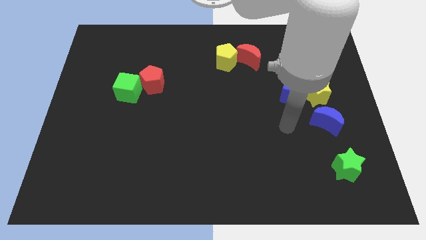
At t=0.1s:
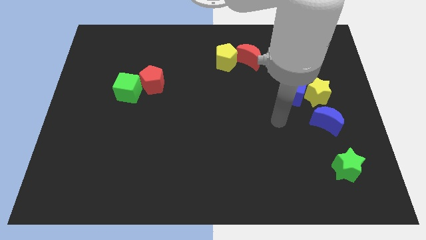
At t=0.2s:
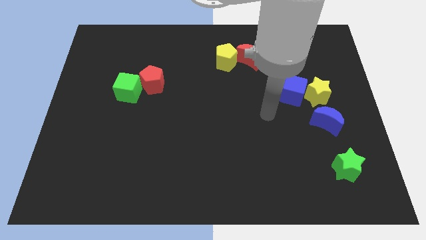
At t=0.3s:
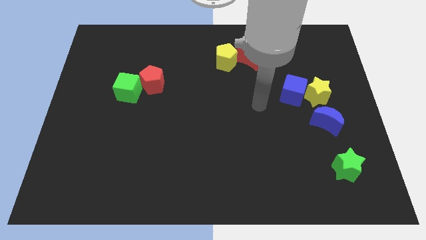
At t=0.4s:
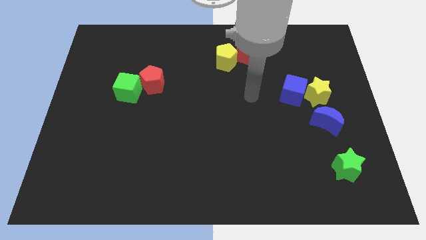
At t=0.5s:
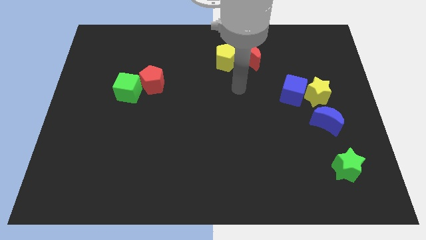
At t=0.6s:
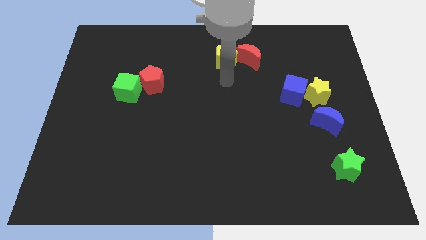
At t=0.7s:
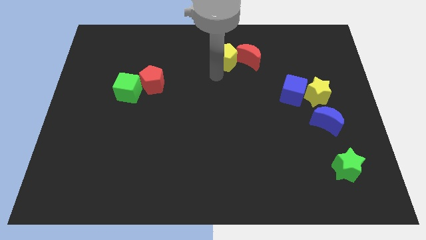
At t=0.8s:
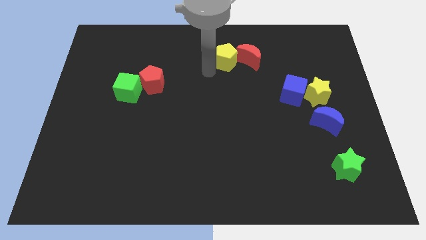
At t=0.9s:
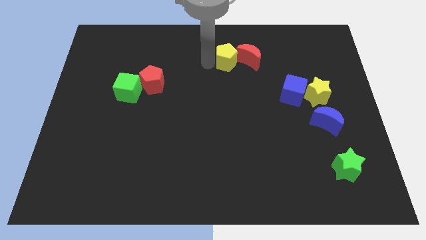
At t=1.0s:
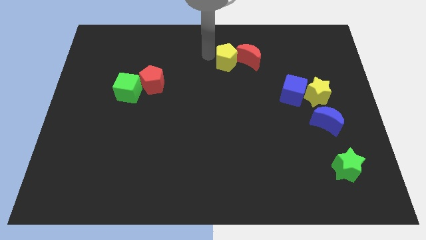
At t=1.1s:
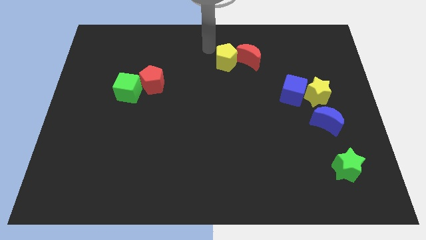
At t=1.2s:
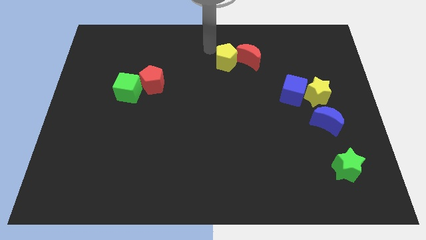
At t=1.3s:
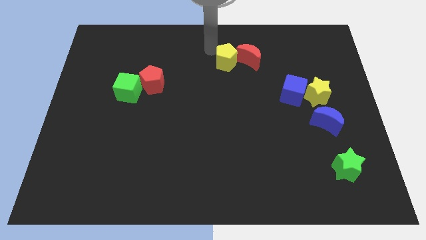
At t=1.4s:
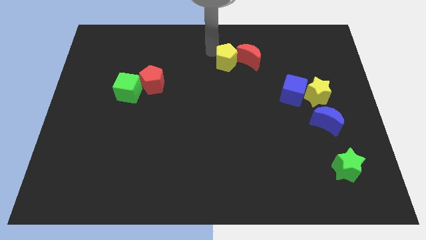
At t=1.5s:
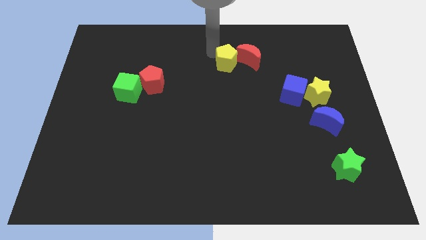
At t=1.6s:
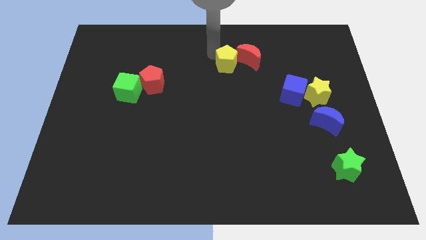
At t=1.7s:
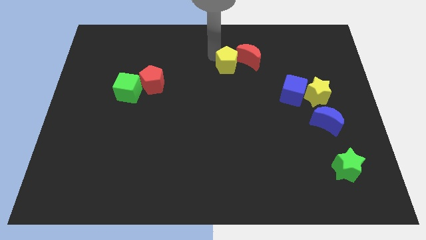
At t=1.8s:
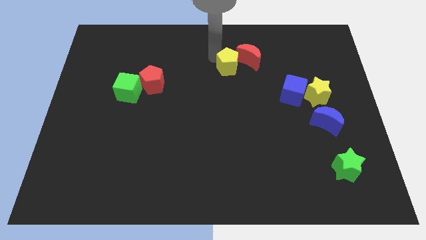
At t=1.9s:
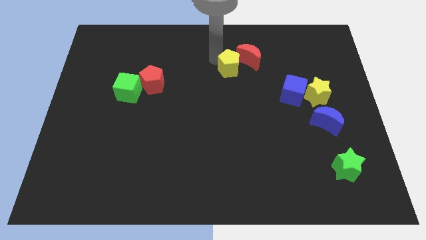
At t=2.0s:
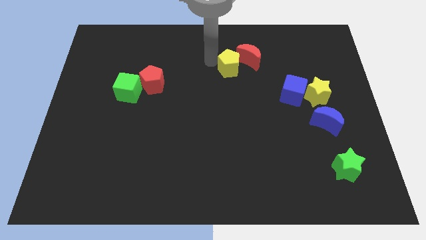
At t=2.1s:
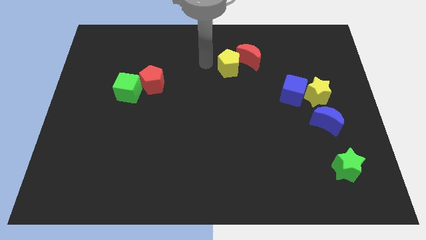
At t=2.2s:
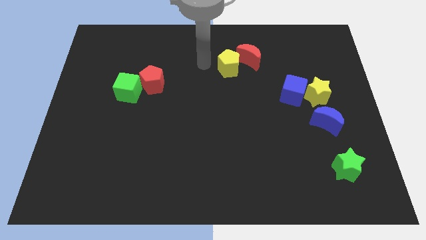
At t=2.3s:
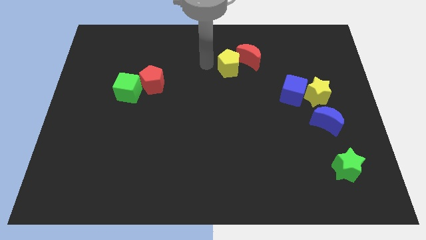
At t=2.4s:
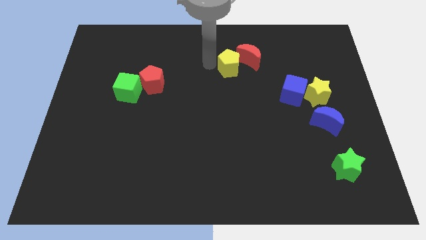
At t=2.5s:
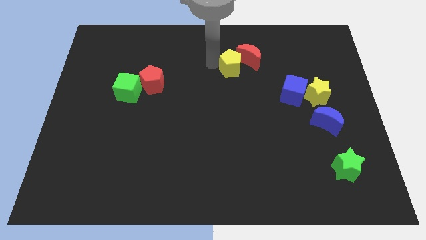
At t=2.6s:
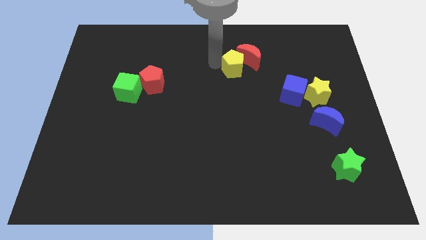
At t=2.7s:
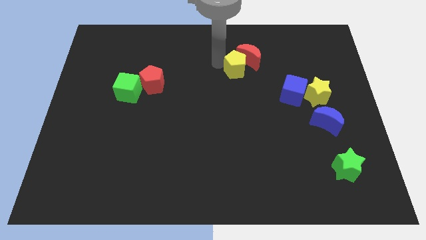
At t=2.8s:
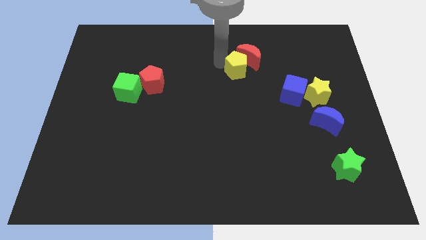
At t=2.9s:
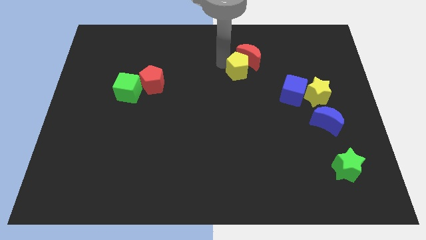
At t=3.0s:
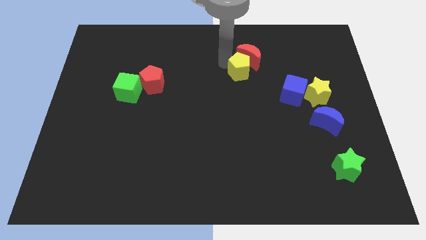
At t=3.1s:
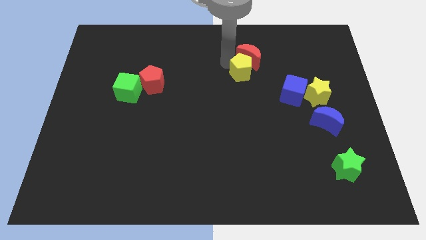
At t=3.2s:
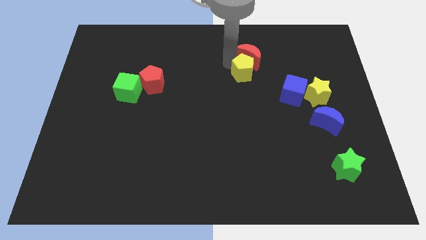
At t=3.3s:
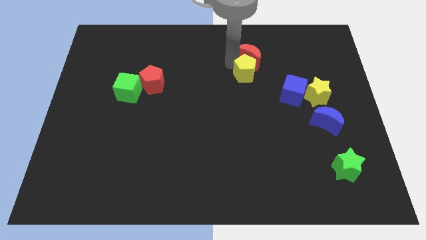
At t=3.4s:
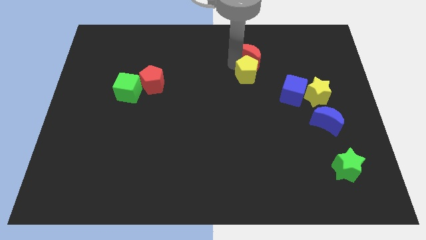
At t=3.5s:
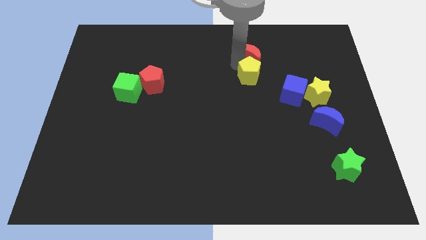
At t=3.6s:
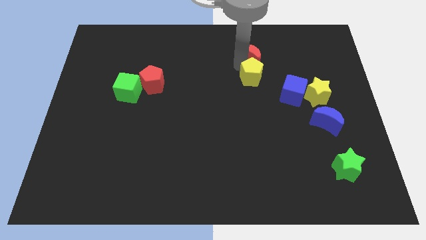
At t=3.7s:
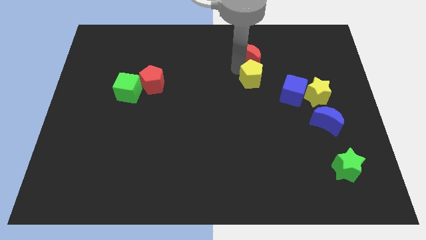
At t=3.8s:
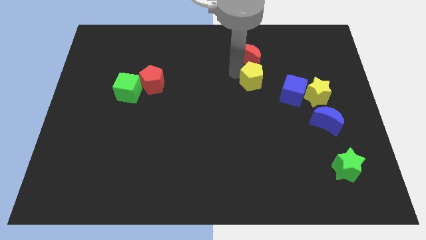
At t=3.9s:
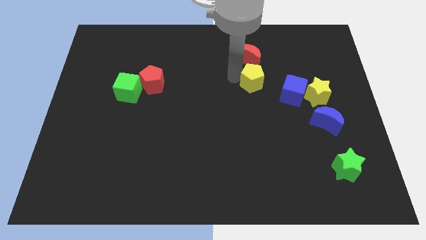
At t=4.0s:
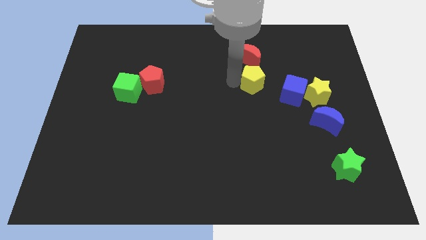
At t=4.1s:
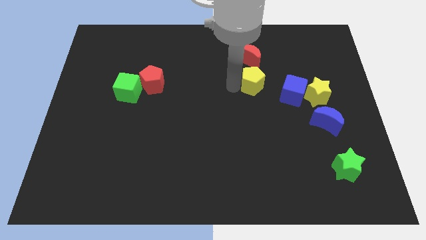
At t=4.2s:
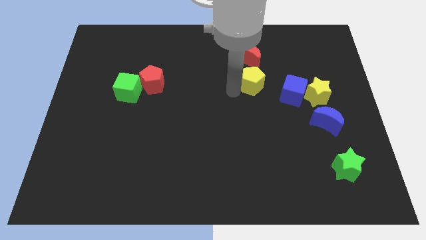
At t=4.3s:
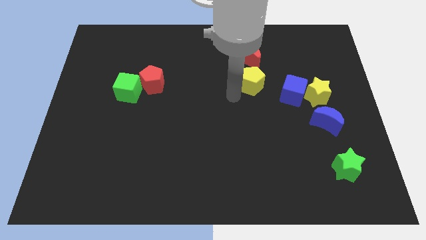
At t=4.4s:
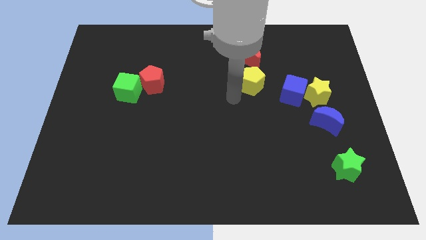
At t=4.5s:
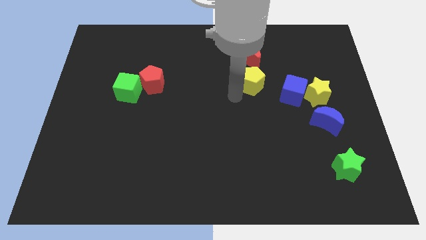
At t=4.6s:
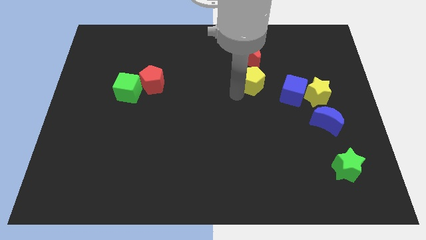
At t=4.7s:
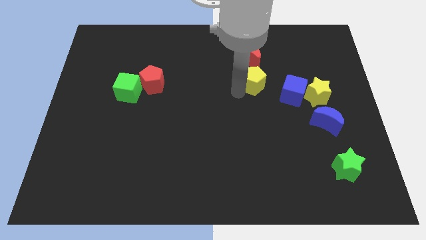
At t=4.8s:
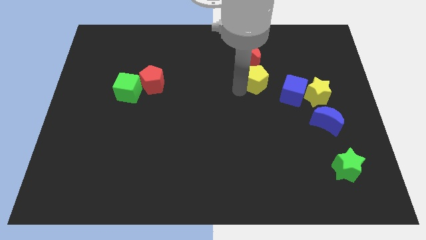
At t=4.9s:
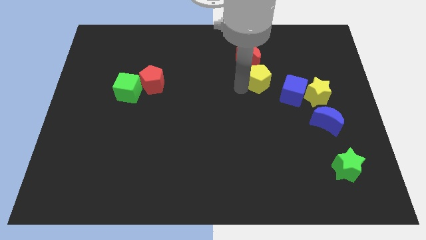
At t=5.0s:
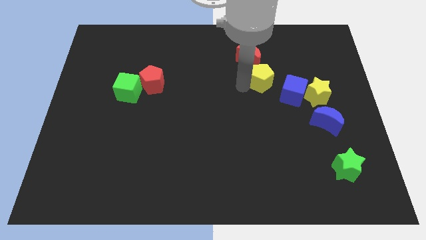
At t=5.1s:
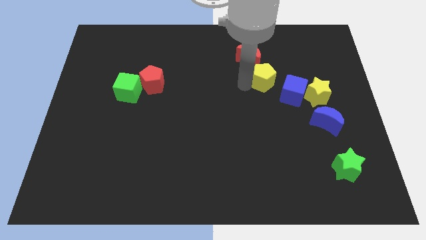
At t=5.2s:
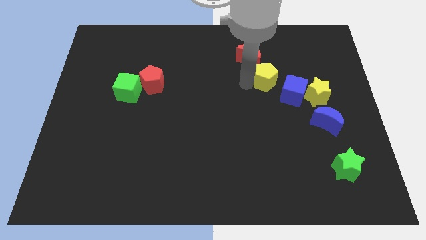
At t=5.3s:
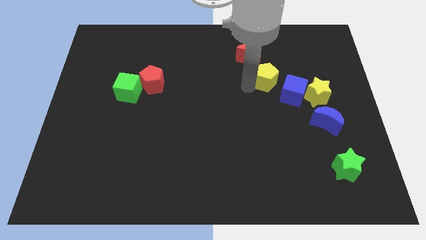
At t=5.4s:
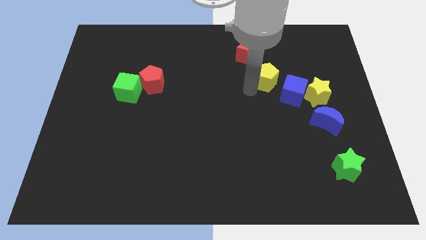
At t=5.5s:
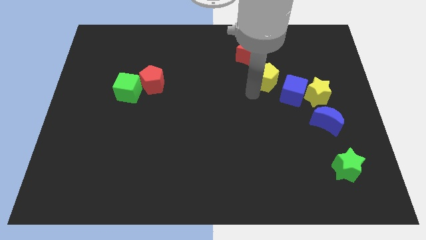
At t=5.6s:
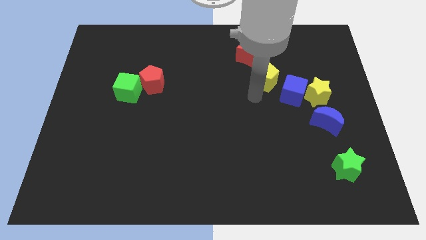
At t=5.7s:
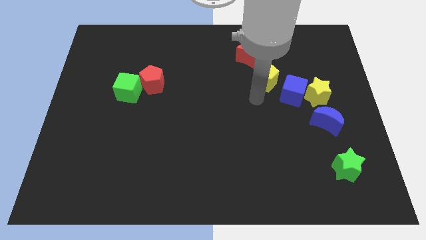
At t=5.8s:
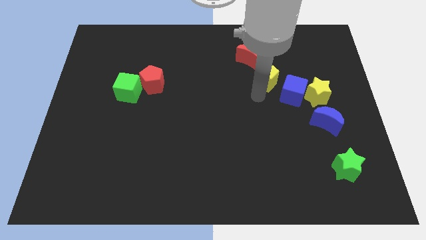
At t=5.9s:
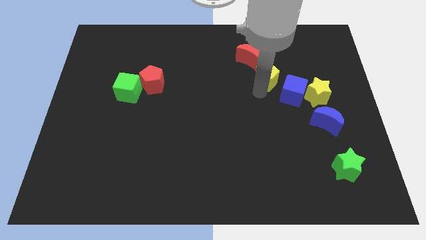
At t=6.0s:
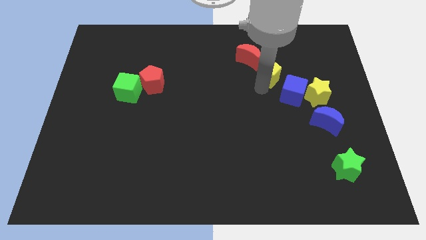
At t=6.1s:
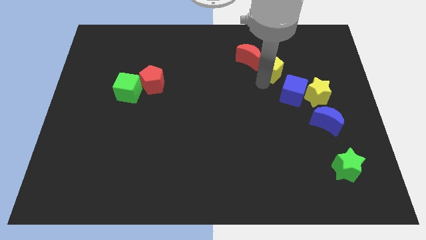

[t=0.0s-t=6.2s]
put the yellow pentagon above the blue cube

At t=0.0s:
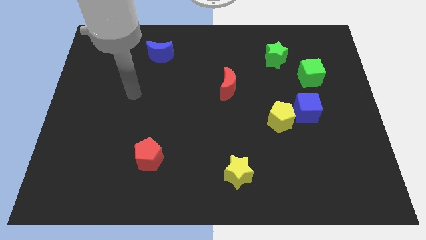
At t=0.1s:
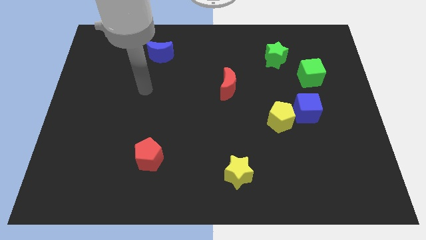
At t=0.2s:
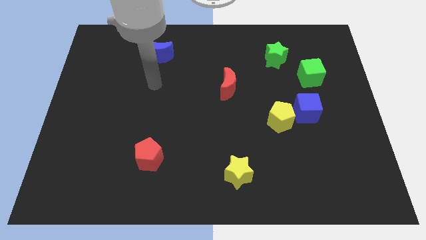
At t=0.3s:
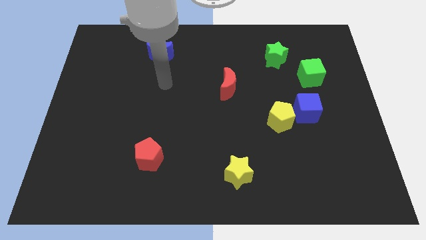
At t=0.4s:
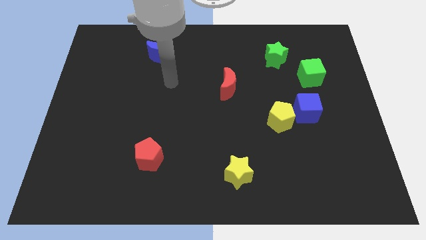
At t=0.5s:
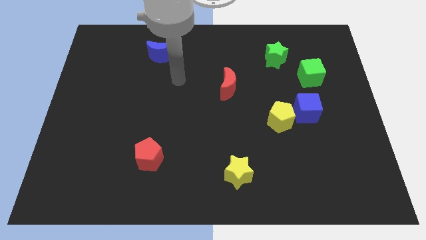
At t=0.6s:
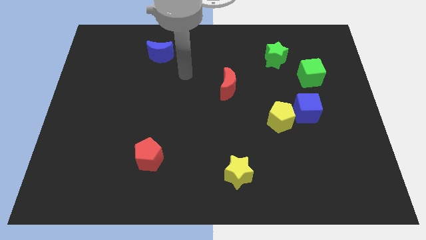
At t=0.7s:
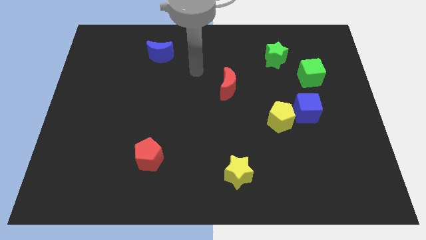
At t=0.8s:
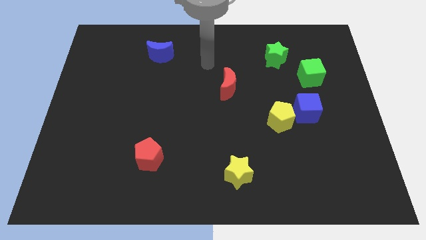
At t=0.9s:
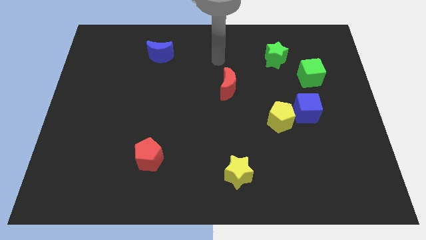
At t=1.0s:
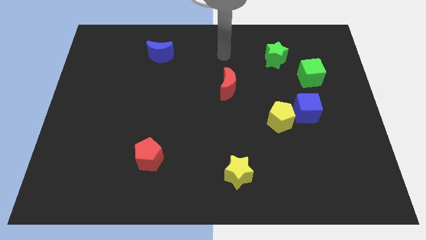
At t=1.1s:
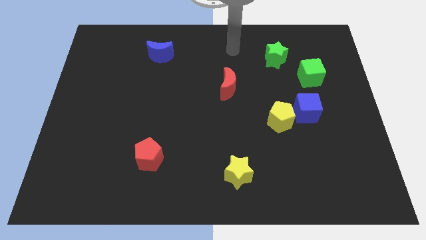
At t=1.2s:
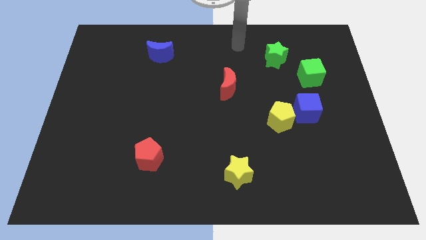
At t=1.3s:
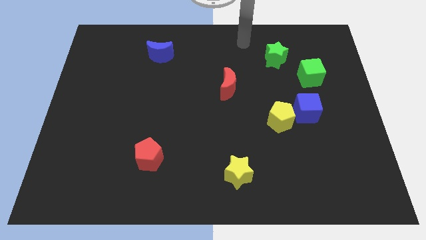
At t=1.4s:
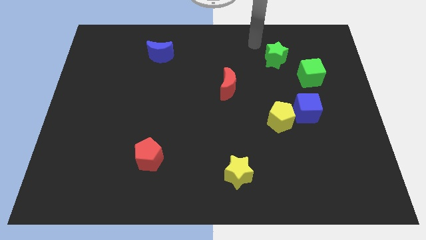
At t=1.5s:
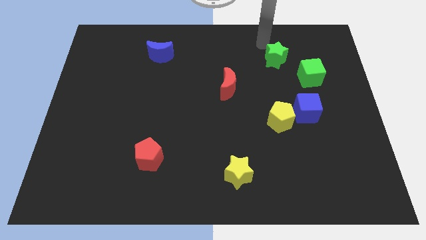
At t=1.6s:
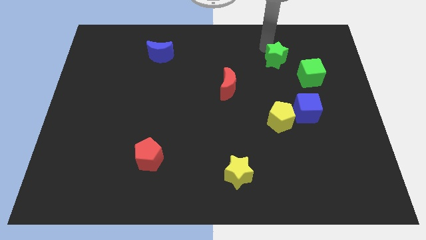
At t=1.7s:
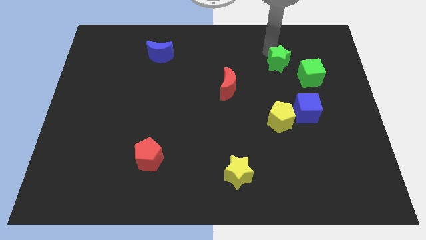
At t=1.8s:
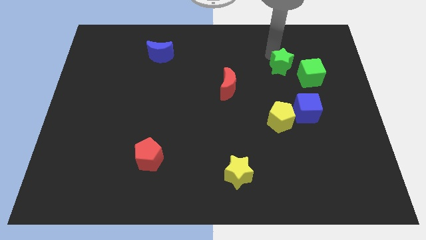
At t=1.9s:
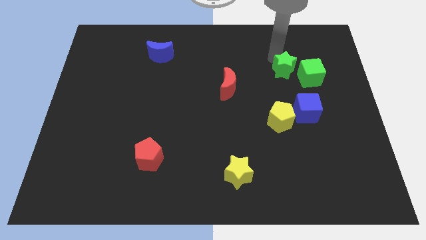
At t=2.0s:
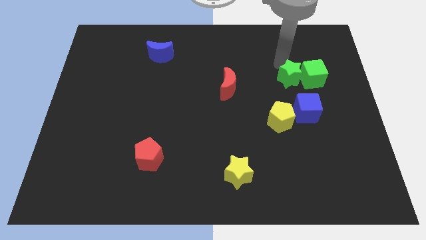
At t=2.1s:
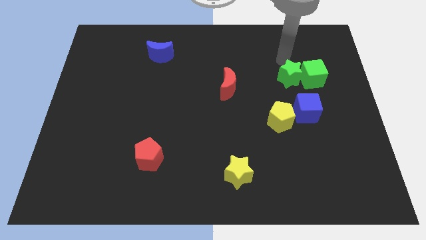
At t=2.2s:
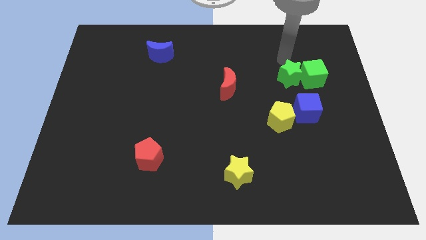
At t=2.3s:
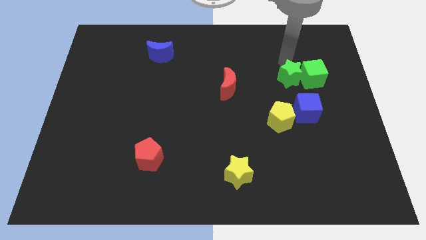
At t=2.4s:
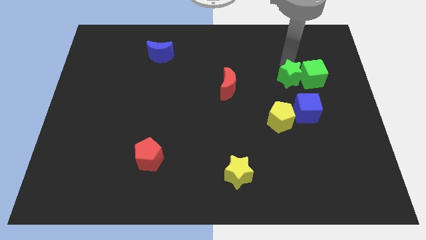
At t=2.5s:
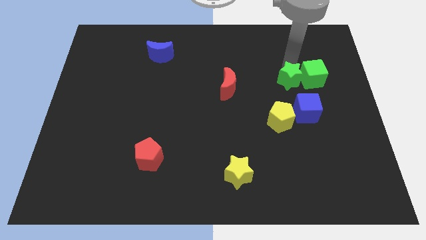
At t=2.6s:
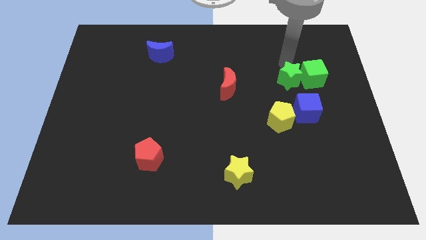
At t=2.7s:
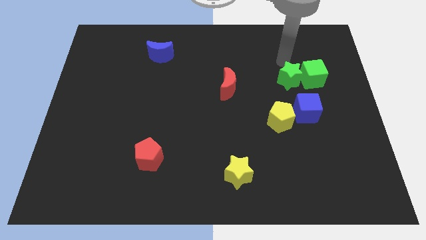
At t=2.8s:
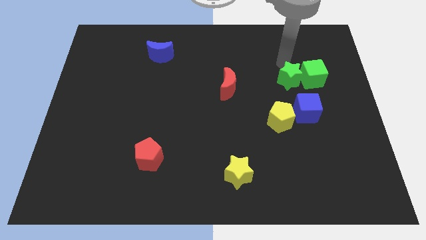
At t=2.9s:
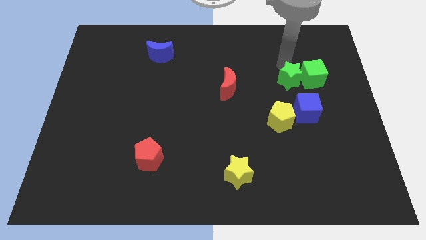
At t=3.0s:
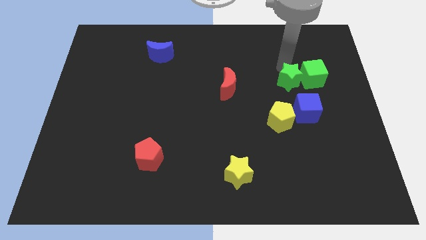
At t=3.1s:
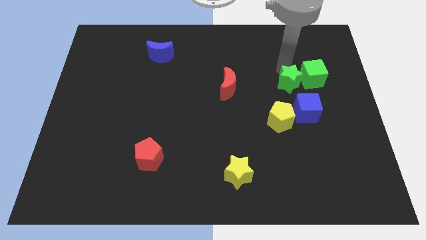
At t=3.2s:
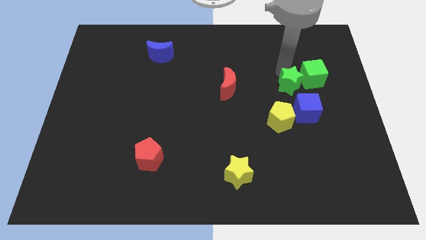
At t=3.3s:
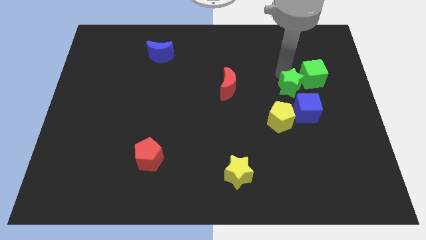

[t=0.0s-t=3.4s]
move the green star to the top right side of the yellow pentagon
